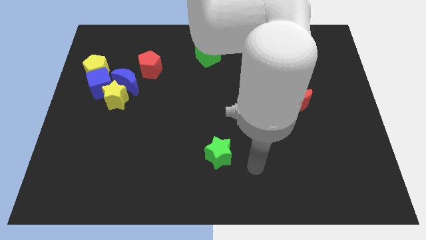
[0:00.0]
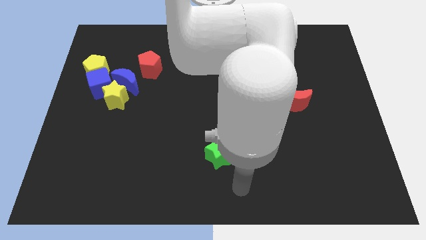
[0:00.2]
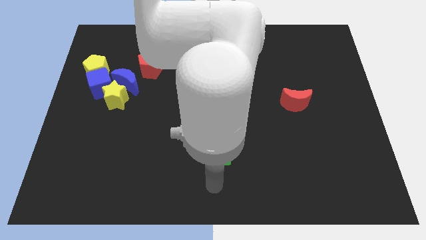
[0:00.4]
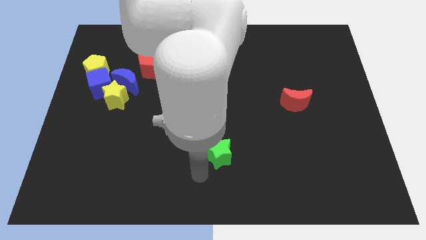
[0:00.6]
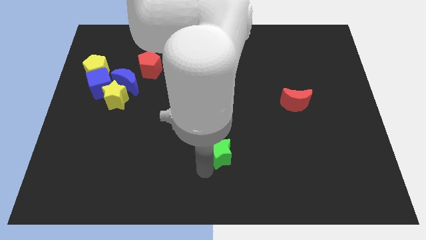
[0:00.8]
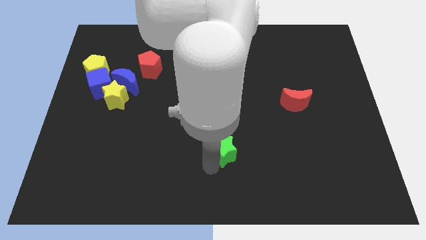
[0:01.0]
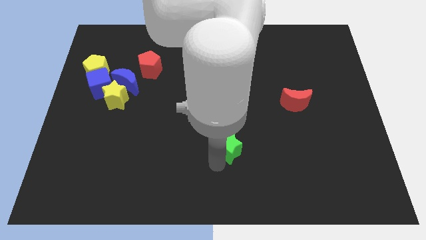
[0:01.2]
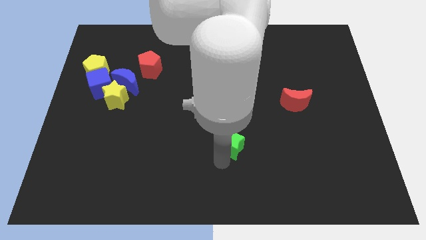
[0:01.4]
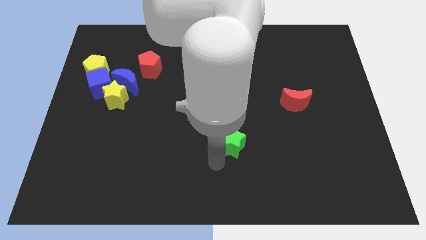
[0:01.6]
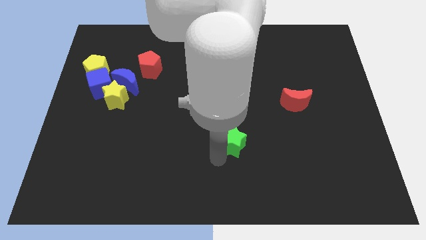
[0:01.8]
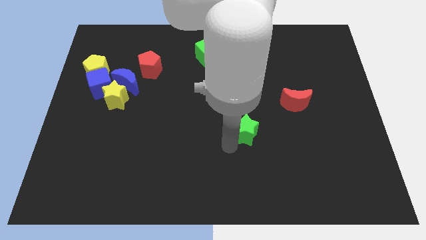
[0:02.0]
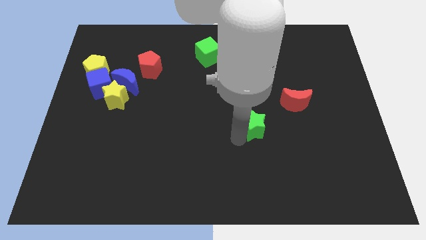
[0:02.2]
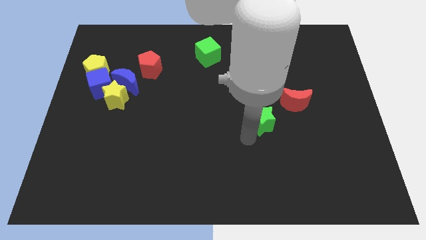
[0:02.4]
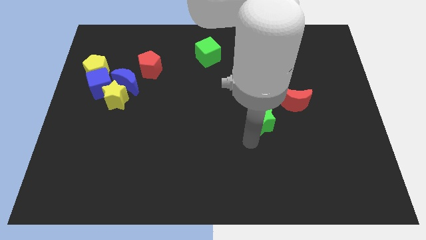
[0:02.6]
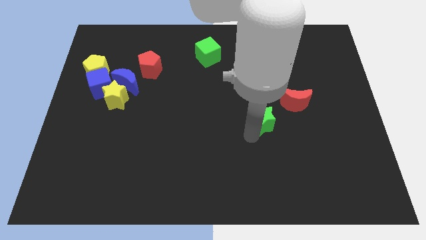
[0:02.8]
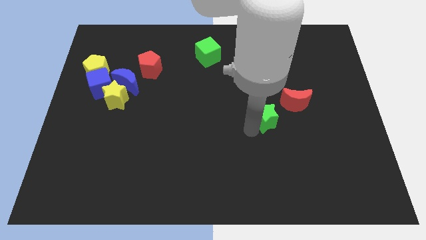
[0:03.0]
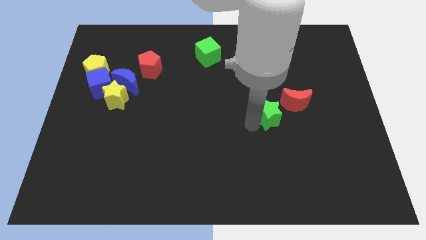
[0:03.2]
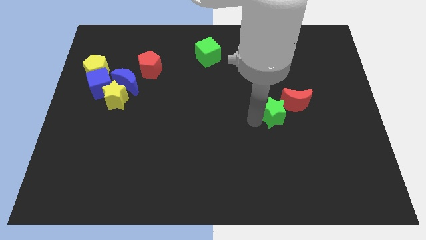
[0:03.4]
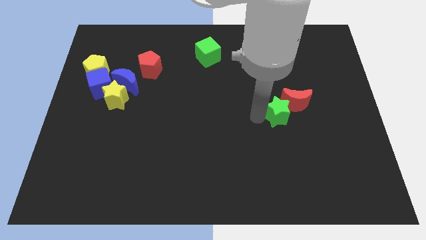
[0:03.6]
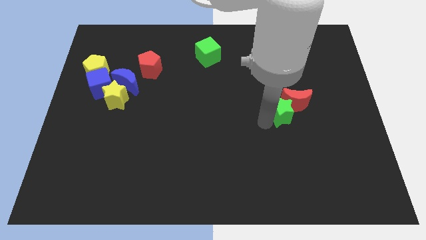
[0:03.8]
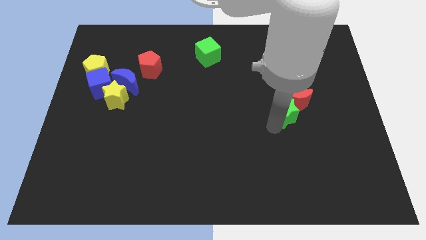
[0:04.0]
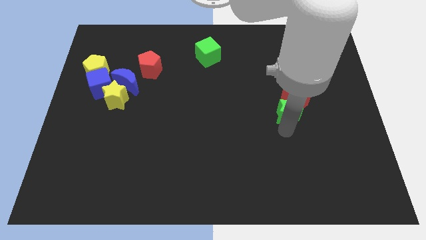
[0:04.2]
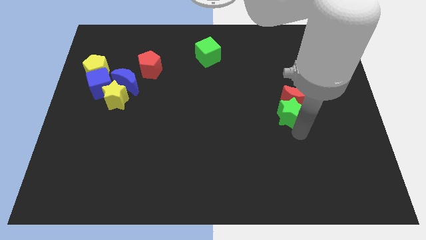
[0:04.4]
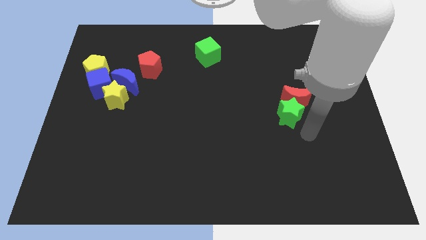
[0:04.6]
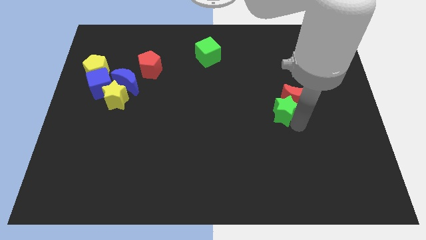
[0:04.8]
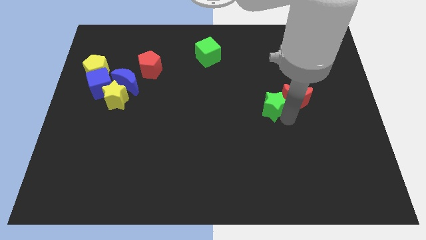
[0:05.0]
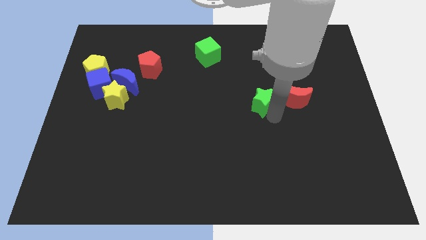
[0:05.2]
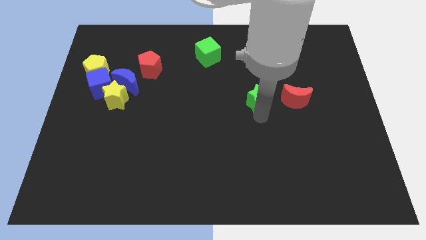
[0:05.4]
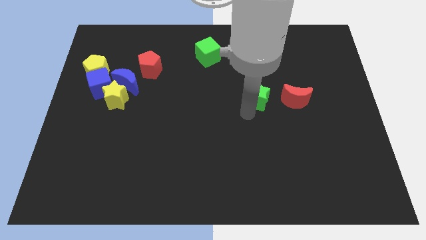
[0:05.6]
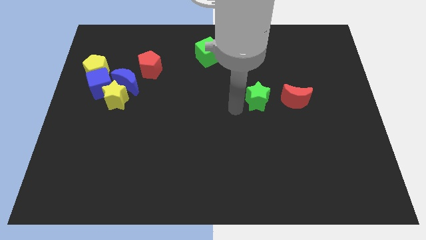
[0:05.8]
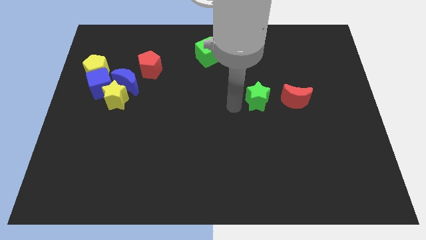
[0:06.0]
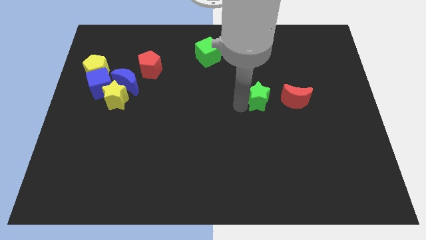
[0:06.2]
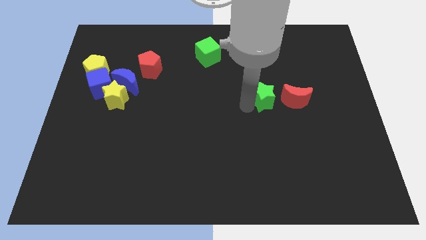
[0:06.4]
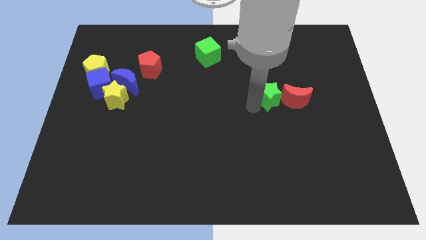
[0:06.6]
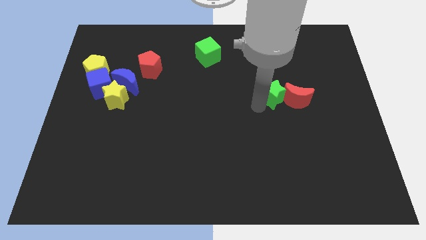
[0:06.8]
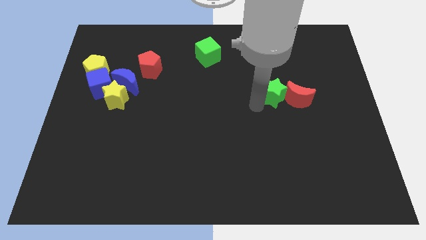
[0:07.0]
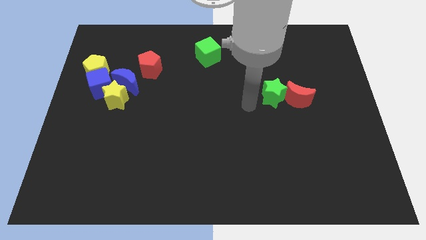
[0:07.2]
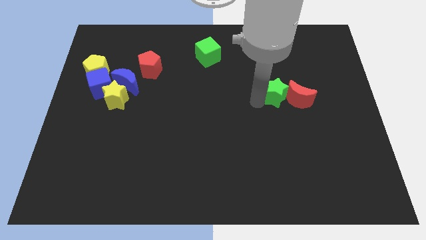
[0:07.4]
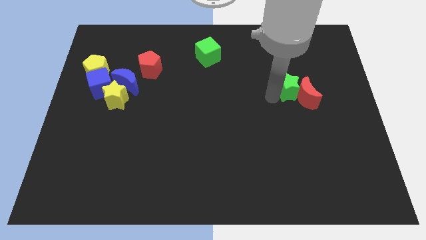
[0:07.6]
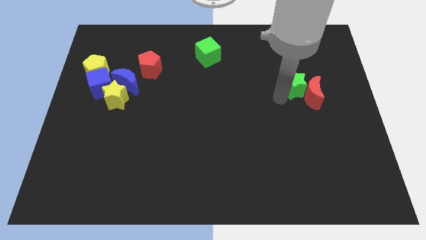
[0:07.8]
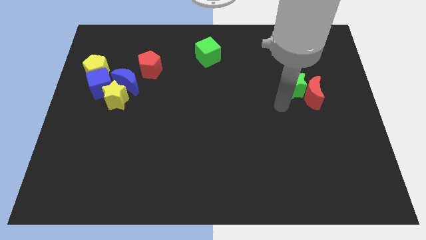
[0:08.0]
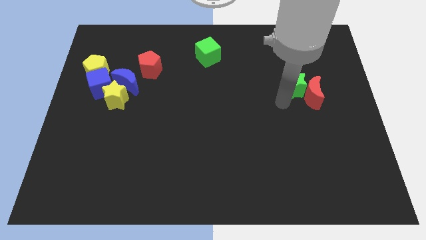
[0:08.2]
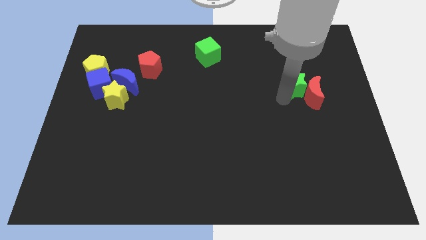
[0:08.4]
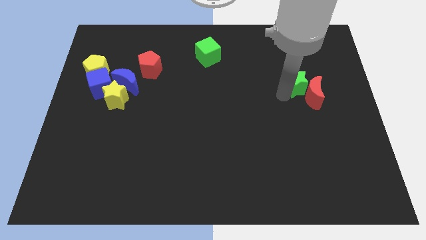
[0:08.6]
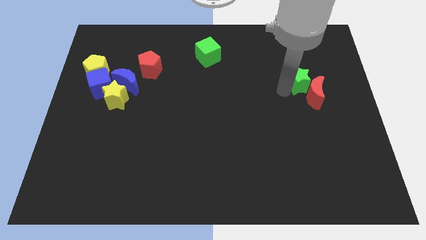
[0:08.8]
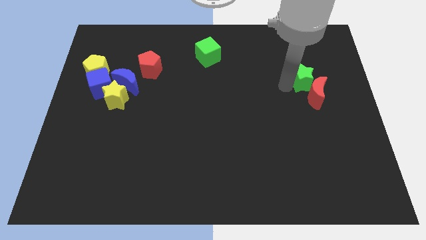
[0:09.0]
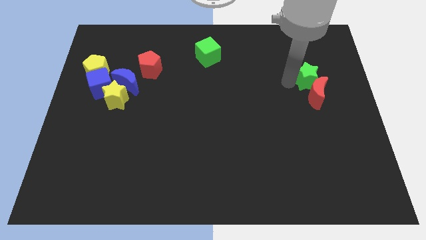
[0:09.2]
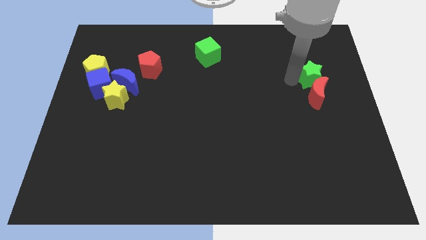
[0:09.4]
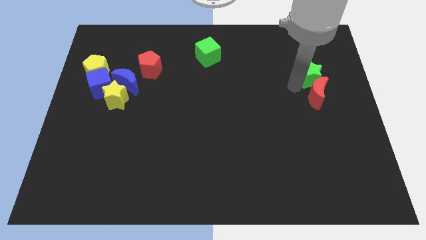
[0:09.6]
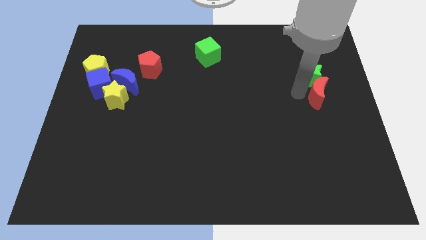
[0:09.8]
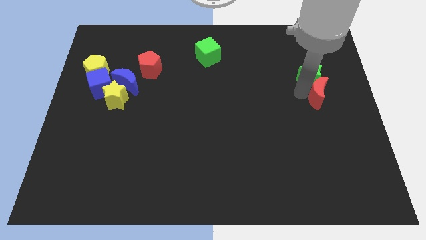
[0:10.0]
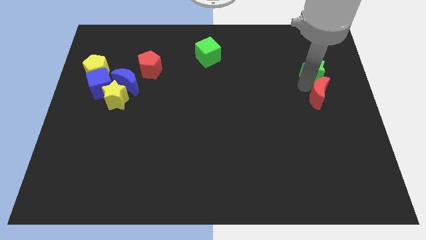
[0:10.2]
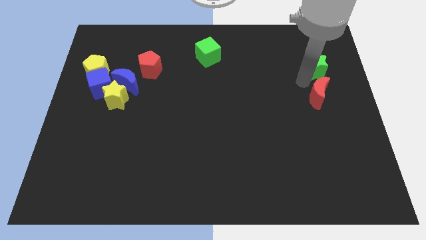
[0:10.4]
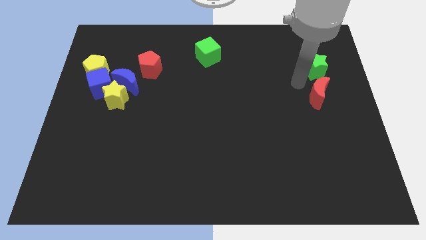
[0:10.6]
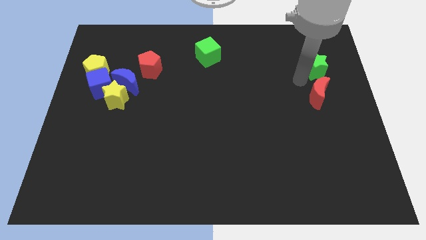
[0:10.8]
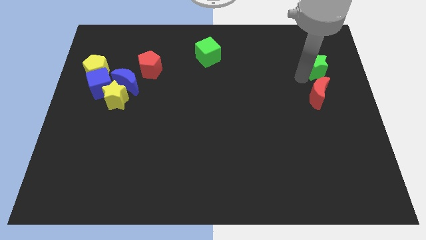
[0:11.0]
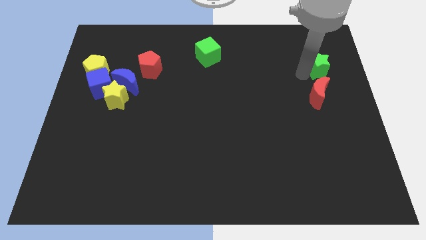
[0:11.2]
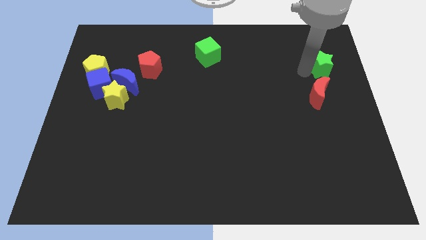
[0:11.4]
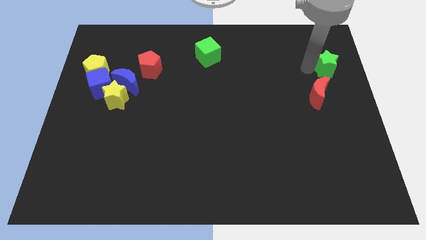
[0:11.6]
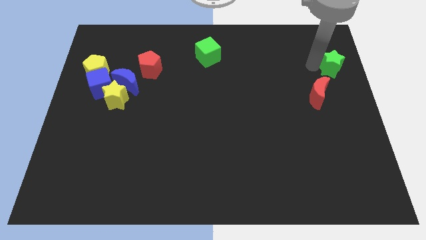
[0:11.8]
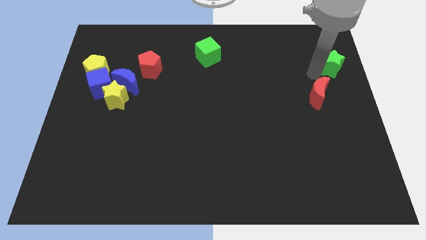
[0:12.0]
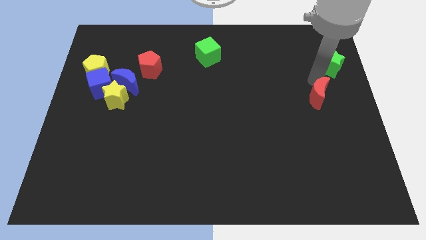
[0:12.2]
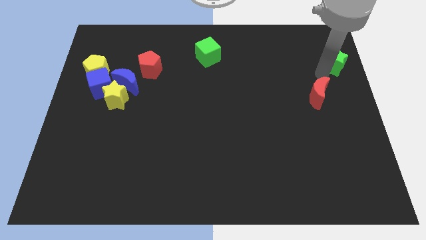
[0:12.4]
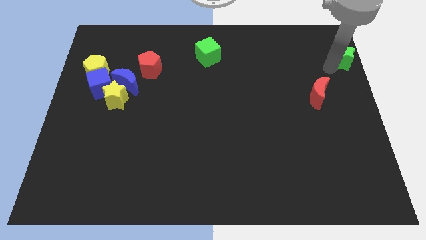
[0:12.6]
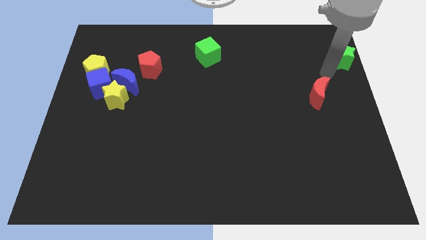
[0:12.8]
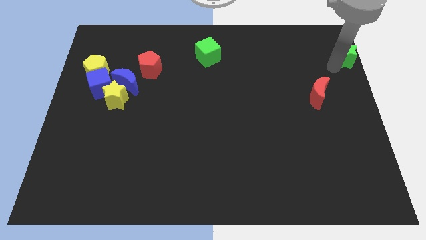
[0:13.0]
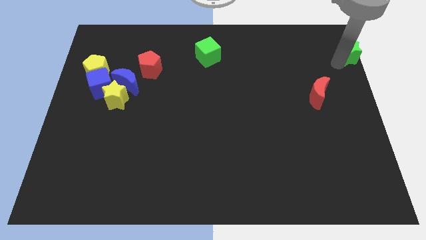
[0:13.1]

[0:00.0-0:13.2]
move the green star to the top right corner
